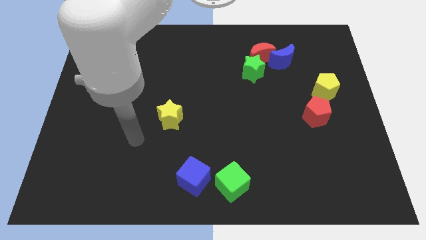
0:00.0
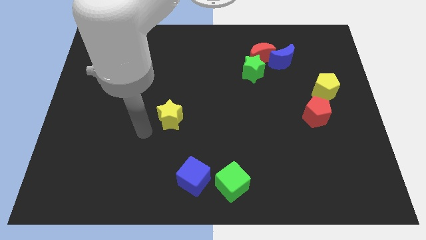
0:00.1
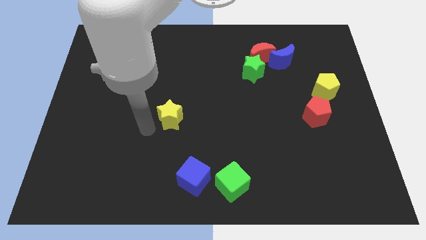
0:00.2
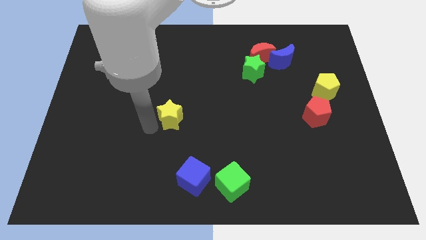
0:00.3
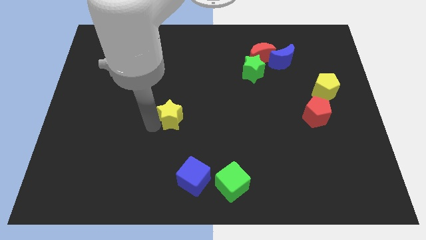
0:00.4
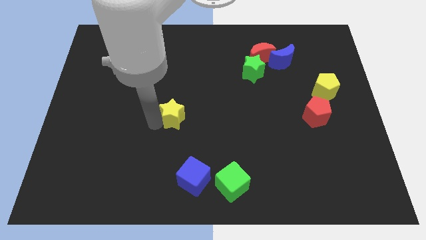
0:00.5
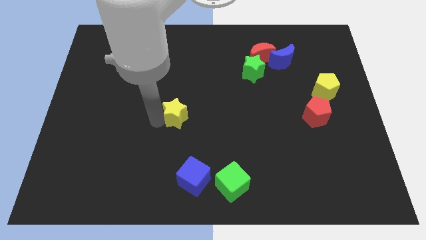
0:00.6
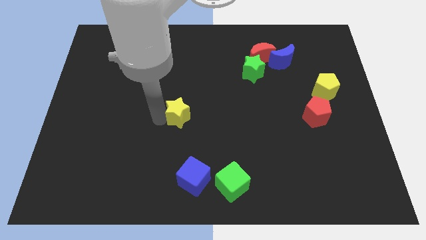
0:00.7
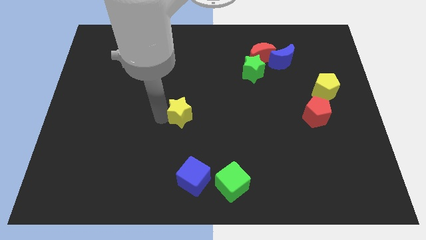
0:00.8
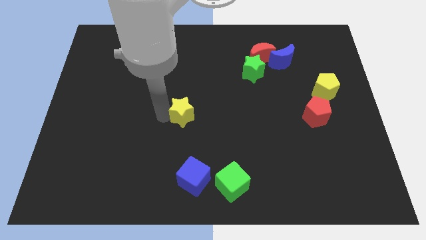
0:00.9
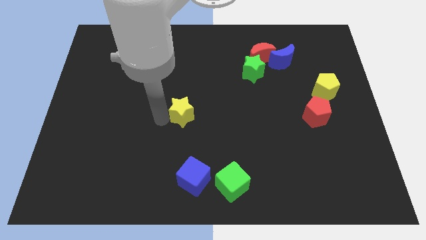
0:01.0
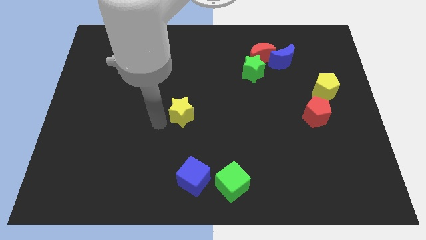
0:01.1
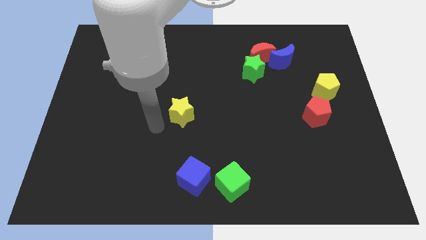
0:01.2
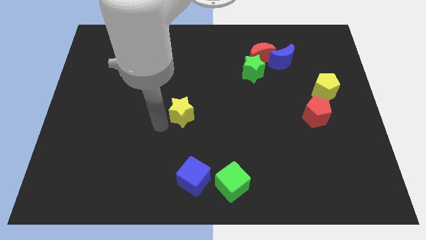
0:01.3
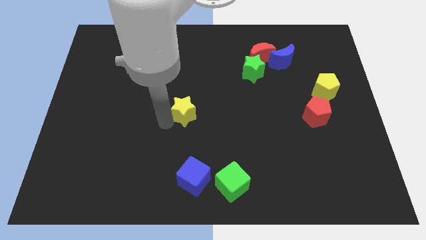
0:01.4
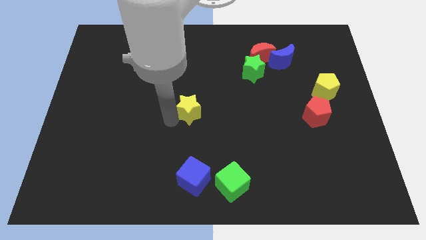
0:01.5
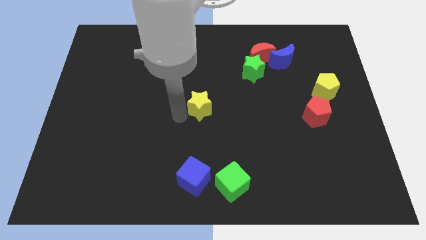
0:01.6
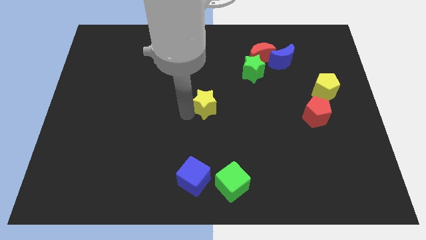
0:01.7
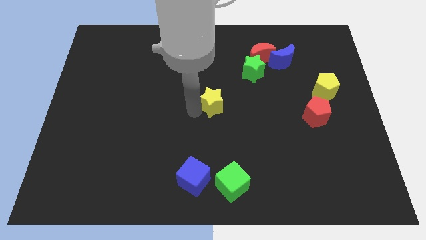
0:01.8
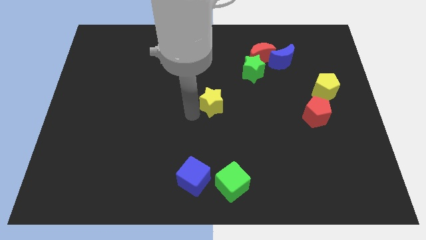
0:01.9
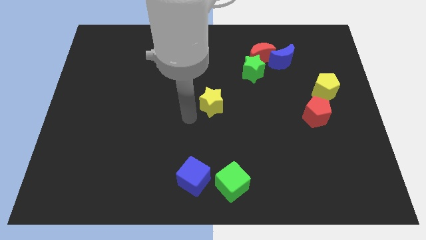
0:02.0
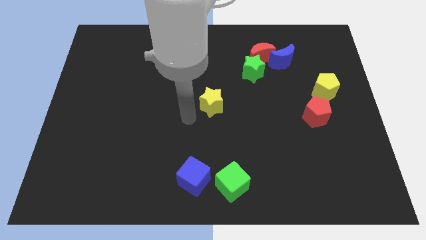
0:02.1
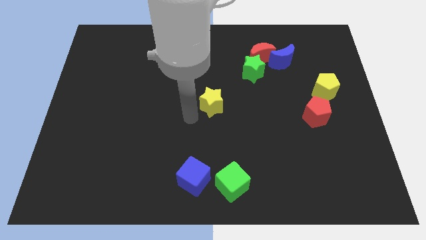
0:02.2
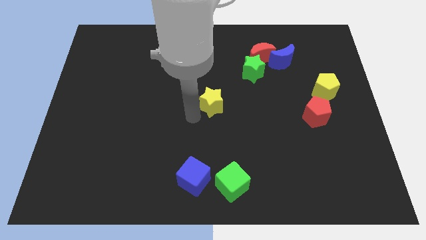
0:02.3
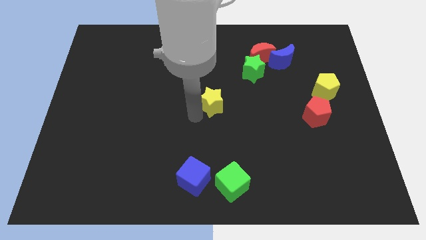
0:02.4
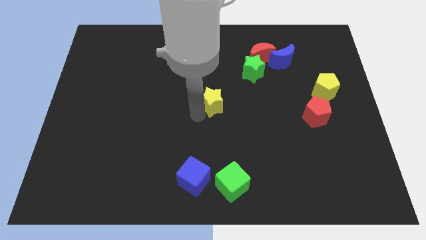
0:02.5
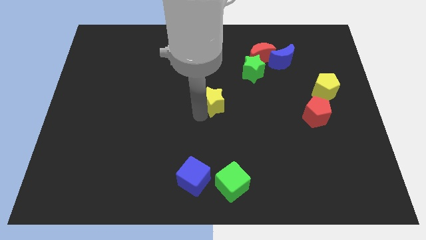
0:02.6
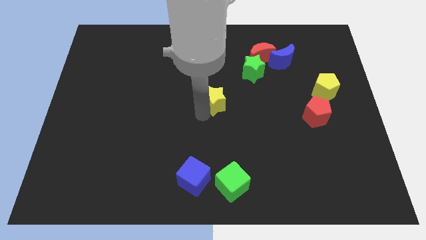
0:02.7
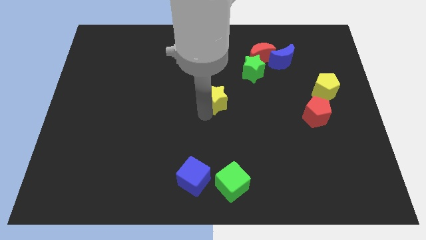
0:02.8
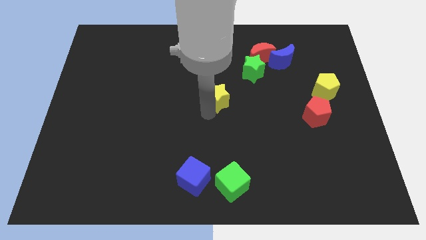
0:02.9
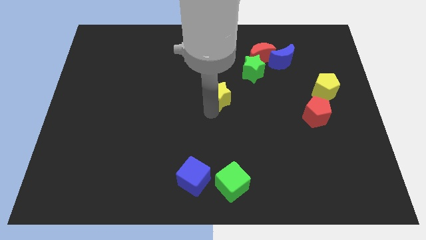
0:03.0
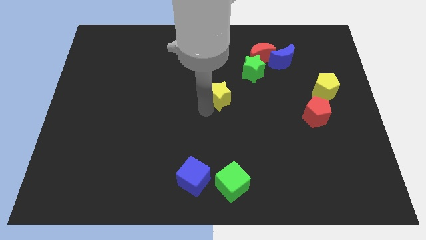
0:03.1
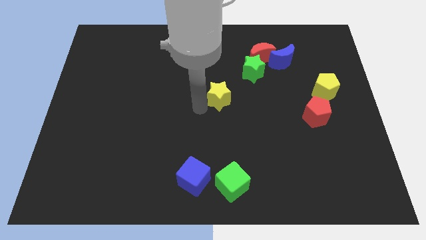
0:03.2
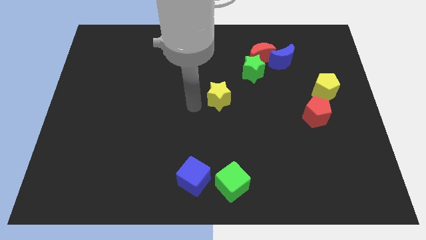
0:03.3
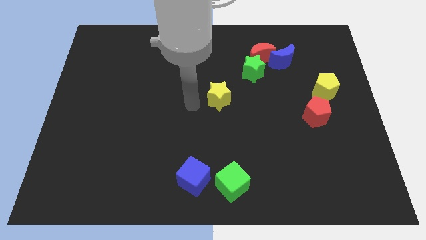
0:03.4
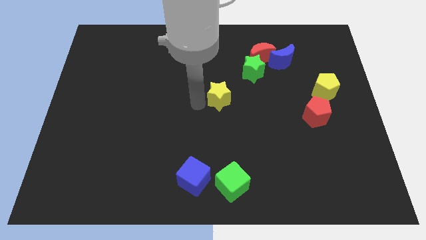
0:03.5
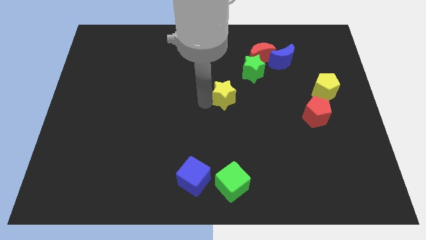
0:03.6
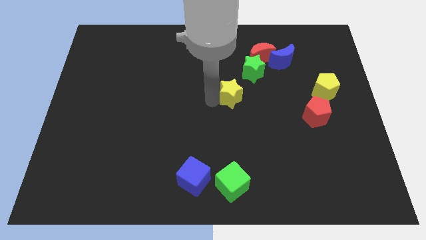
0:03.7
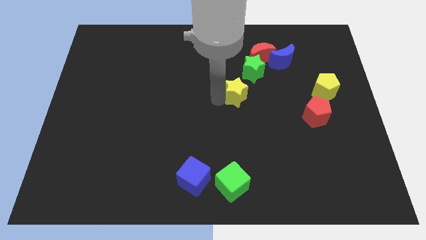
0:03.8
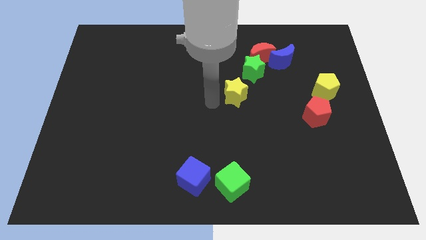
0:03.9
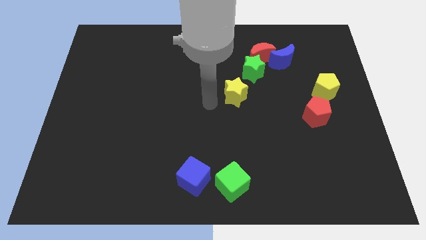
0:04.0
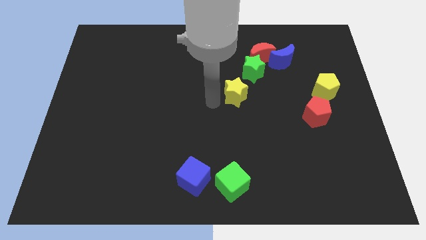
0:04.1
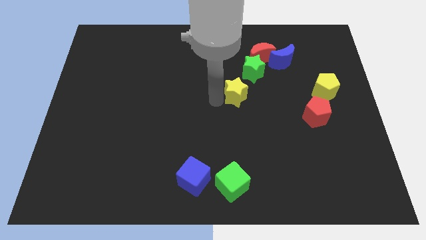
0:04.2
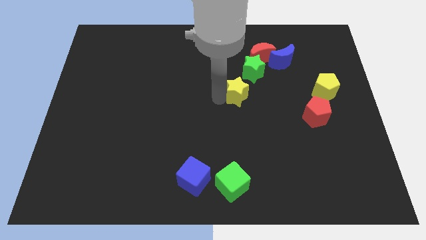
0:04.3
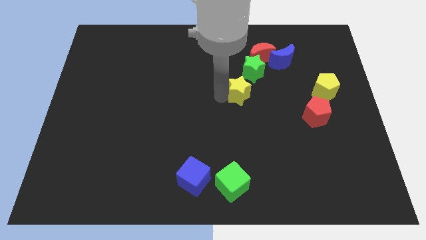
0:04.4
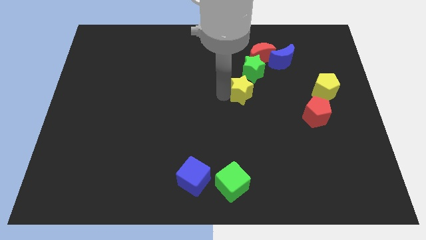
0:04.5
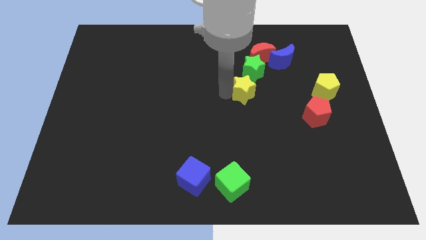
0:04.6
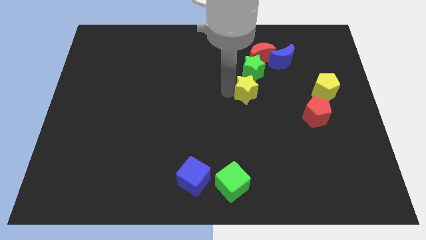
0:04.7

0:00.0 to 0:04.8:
slide the yellow star to the bottom side of the red moon

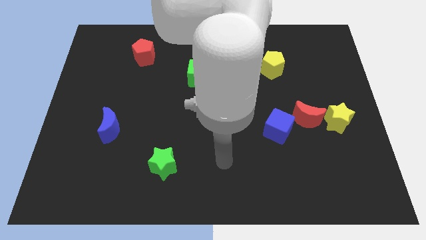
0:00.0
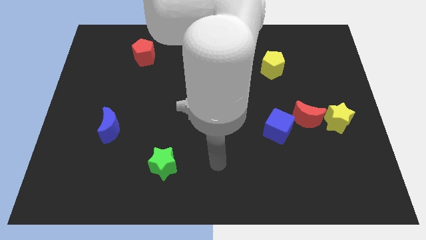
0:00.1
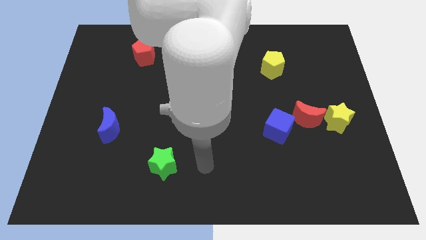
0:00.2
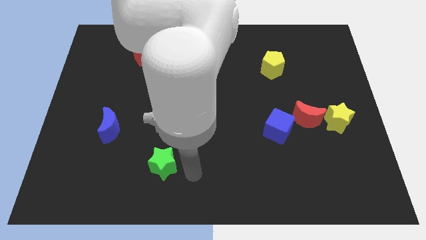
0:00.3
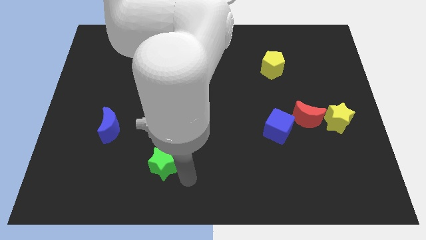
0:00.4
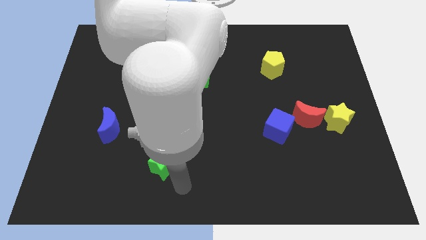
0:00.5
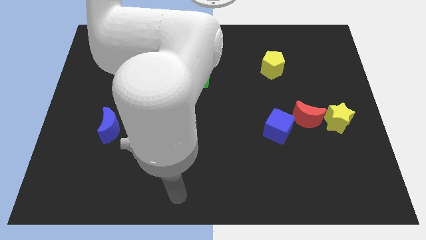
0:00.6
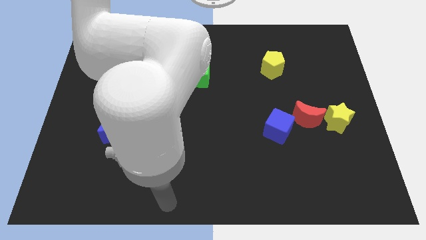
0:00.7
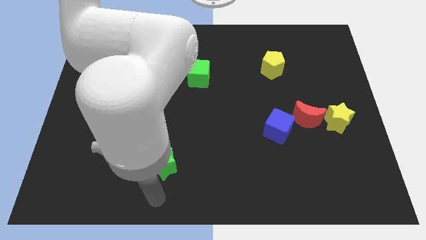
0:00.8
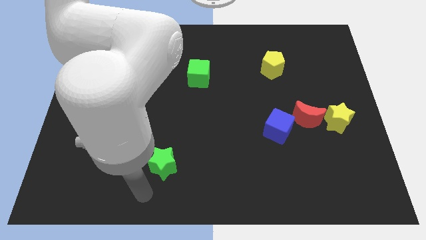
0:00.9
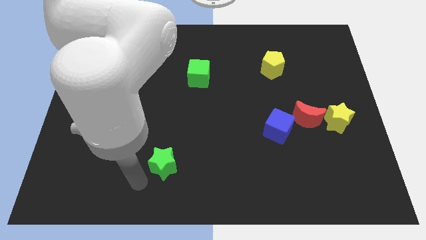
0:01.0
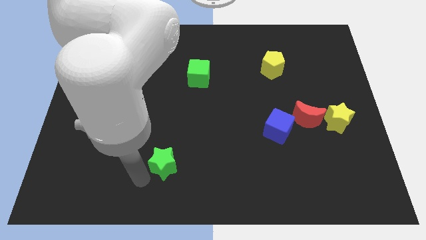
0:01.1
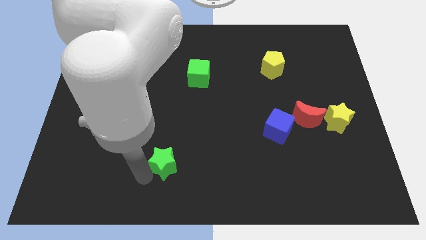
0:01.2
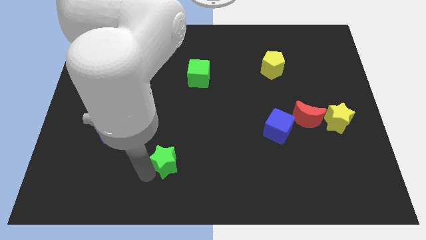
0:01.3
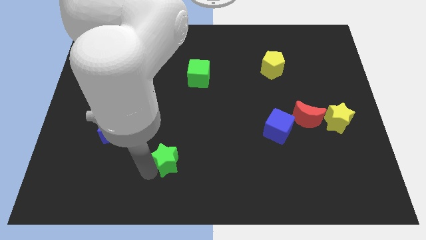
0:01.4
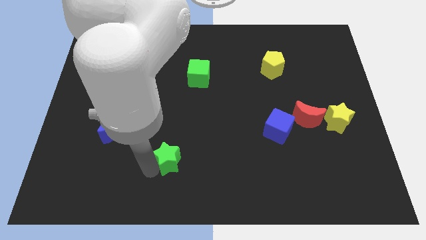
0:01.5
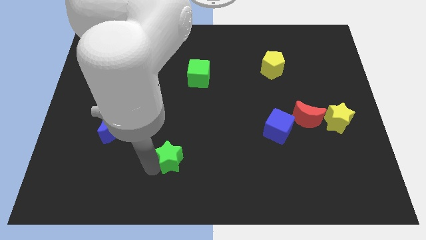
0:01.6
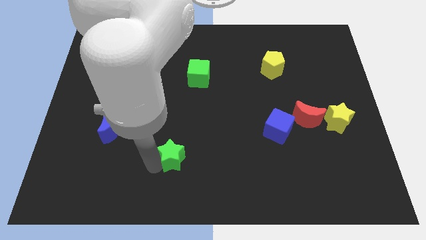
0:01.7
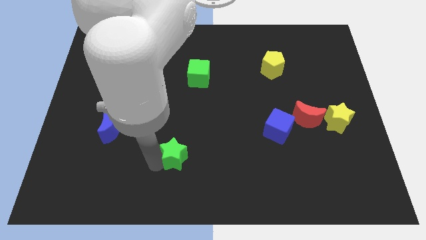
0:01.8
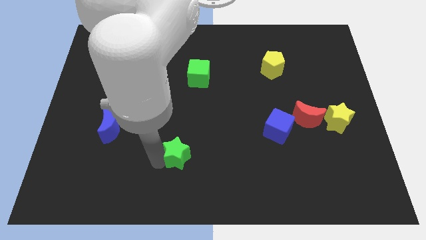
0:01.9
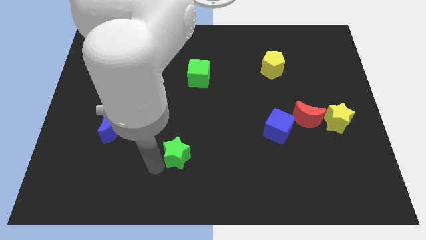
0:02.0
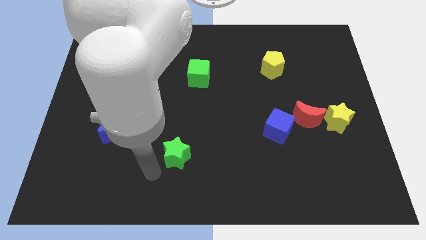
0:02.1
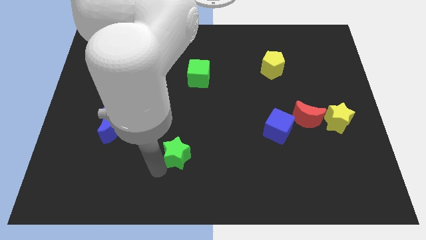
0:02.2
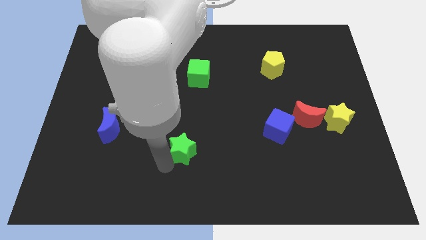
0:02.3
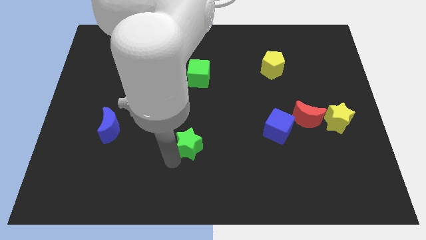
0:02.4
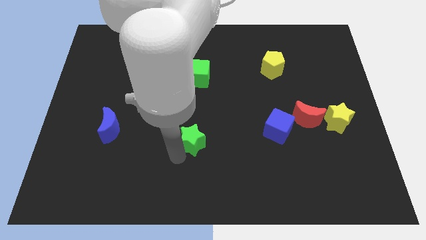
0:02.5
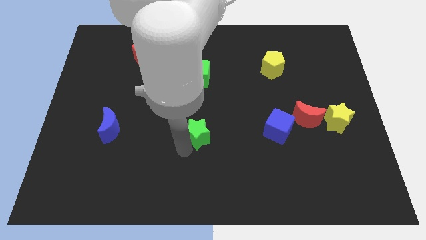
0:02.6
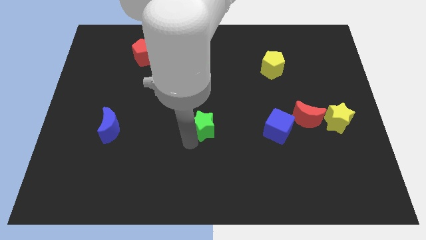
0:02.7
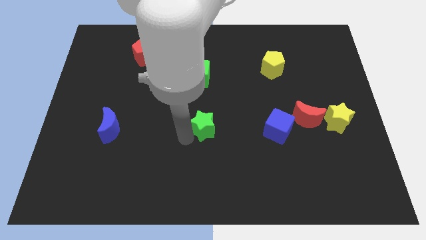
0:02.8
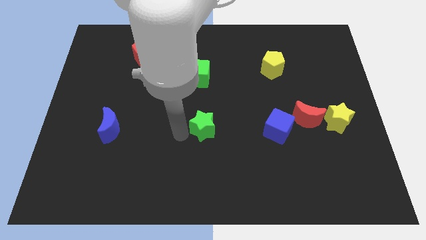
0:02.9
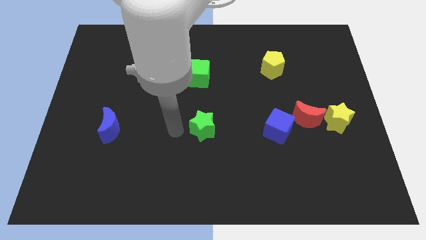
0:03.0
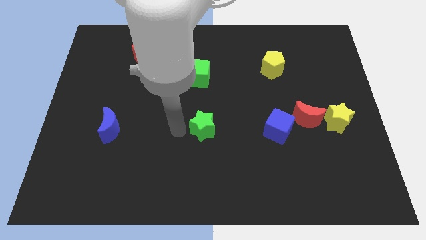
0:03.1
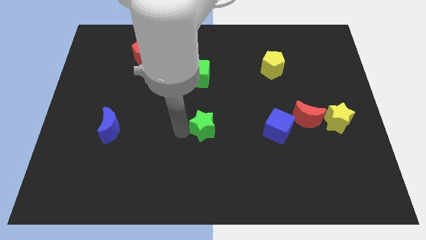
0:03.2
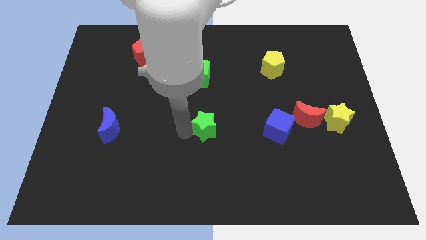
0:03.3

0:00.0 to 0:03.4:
move the green star left of the blue cube
